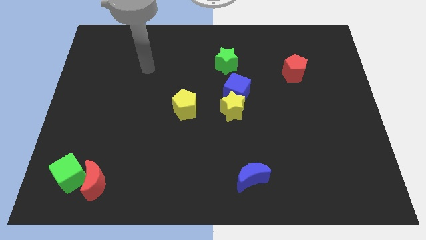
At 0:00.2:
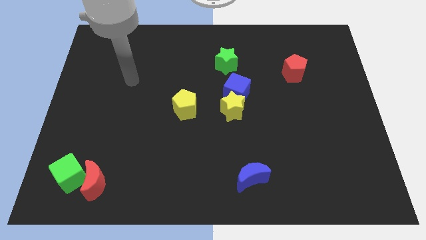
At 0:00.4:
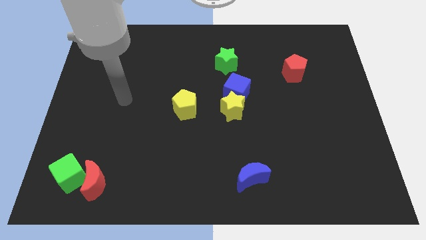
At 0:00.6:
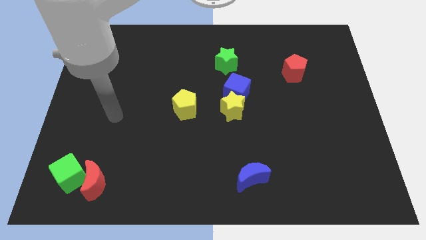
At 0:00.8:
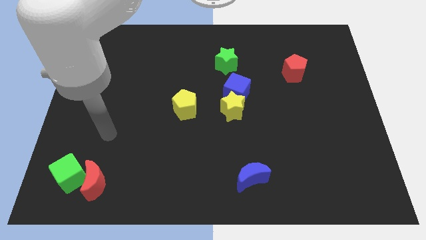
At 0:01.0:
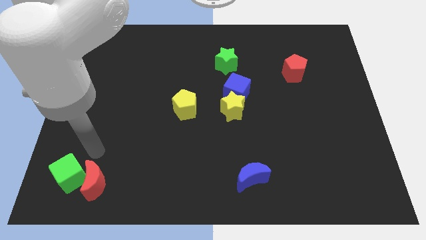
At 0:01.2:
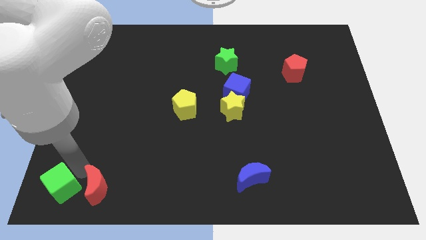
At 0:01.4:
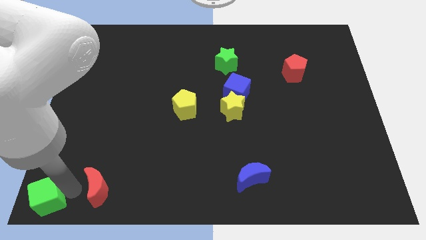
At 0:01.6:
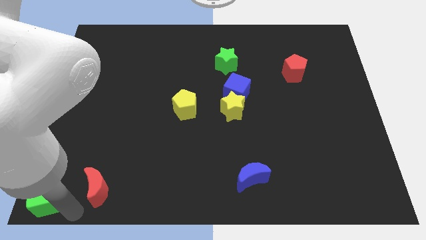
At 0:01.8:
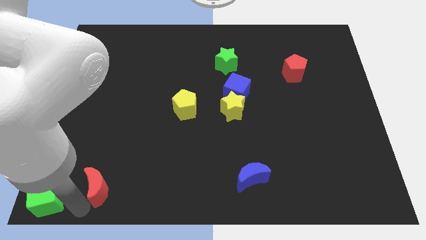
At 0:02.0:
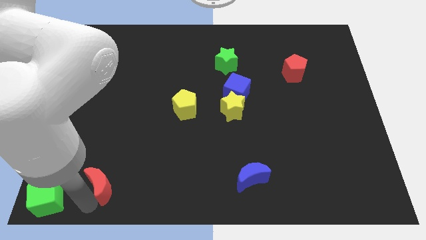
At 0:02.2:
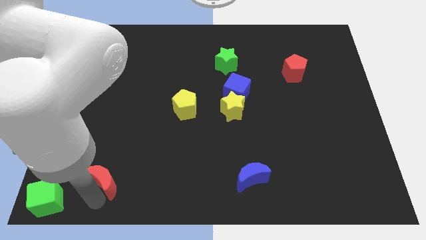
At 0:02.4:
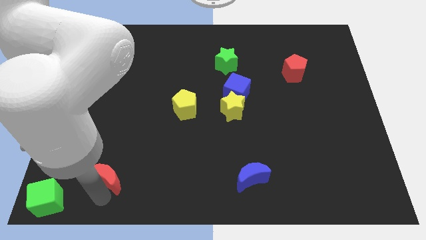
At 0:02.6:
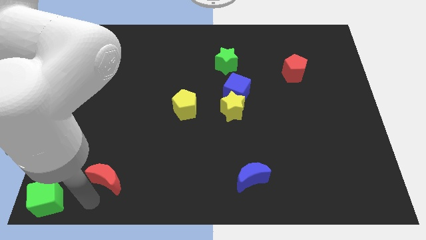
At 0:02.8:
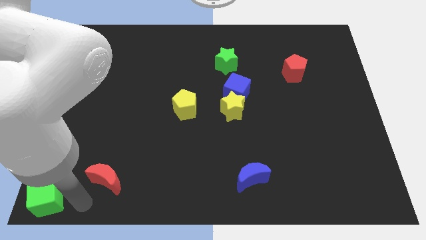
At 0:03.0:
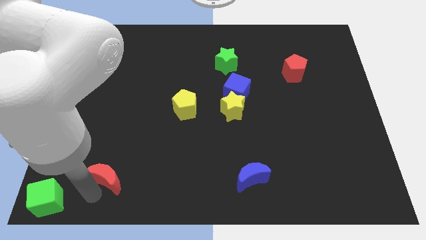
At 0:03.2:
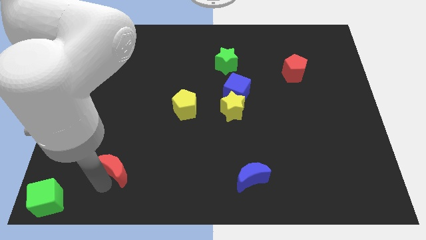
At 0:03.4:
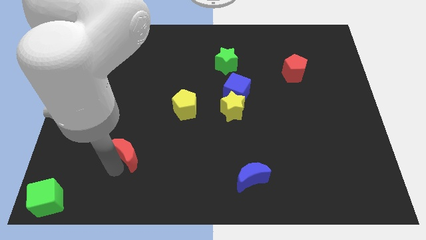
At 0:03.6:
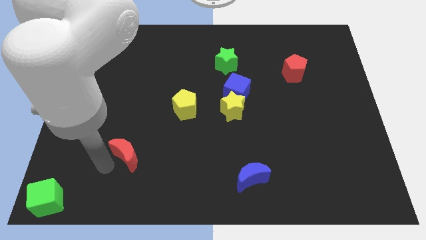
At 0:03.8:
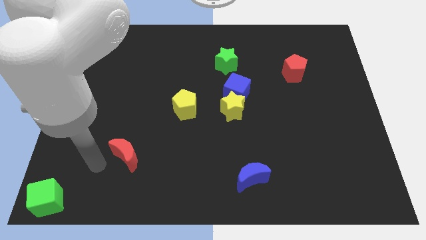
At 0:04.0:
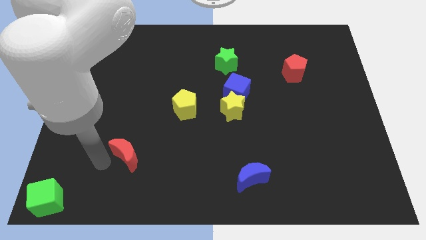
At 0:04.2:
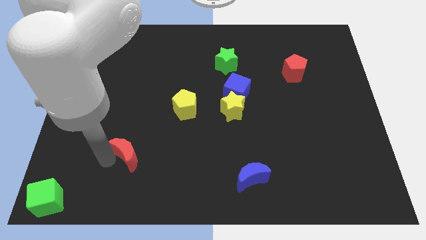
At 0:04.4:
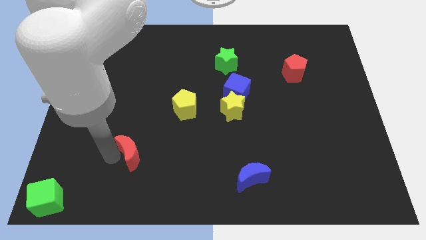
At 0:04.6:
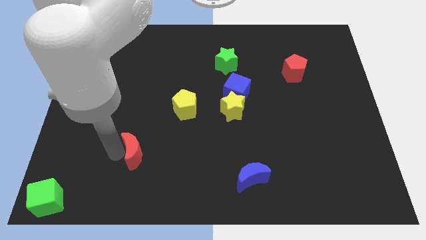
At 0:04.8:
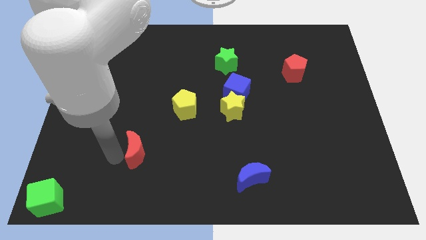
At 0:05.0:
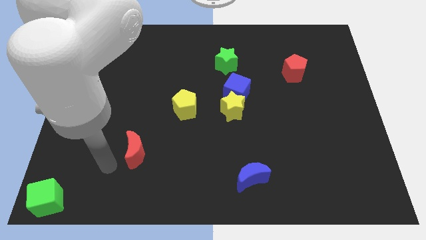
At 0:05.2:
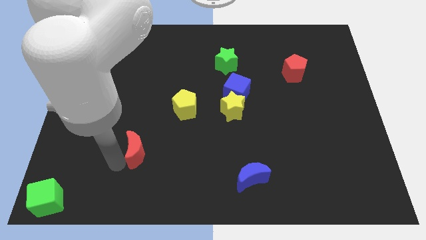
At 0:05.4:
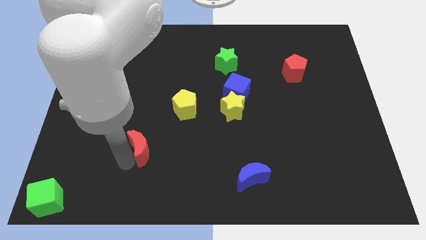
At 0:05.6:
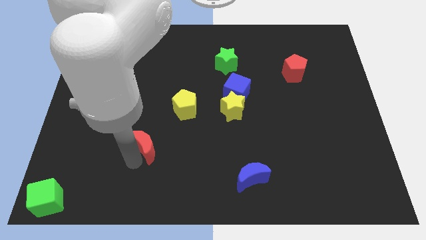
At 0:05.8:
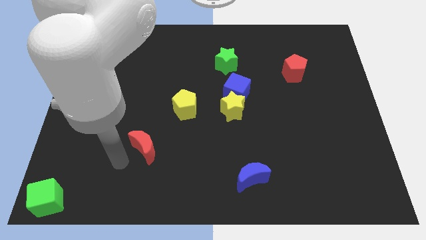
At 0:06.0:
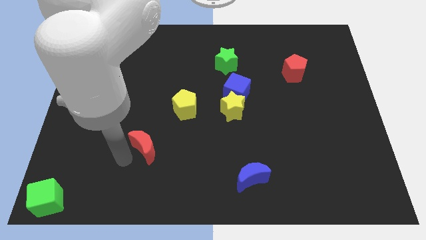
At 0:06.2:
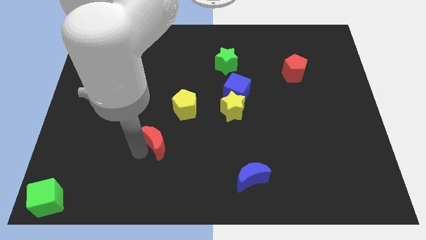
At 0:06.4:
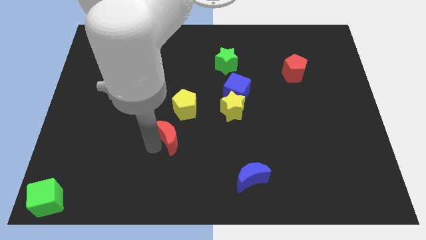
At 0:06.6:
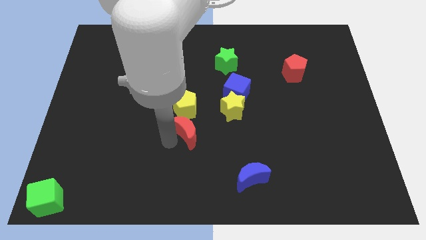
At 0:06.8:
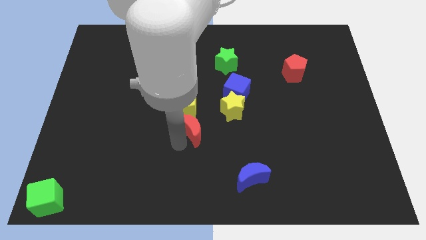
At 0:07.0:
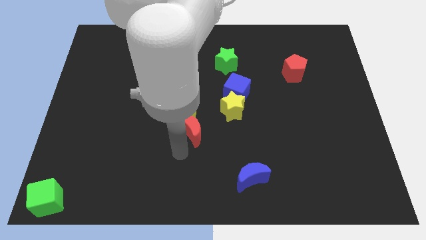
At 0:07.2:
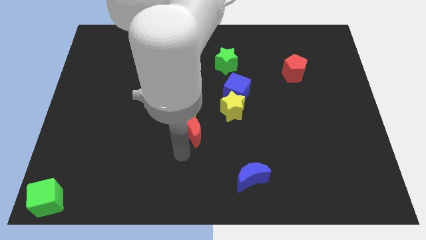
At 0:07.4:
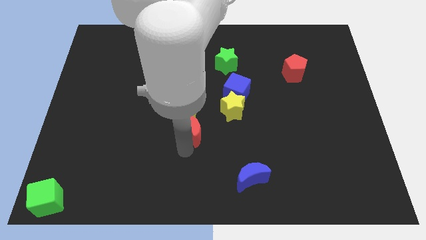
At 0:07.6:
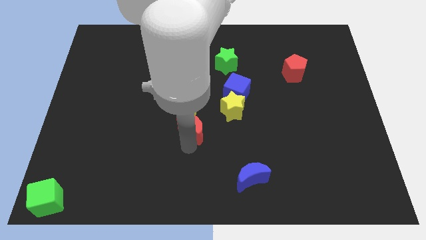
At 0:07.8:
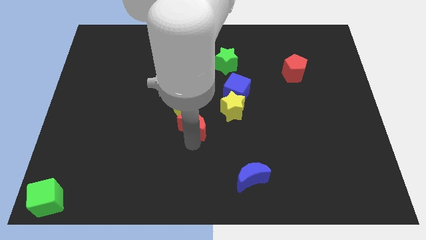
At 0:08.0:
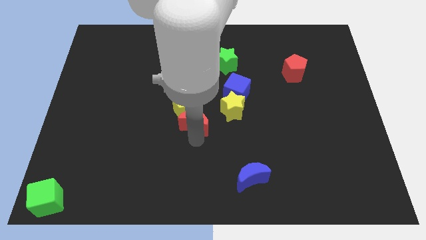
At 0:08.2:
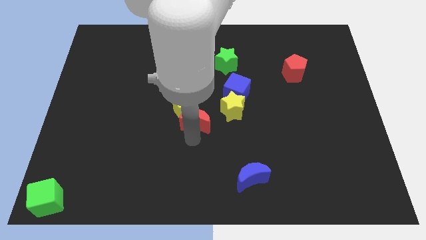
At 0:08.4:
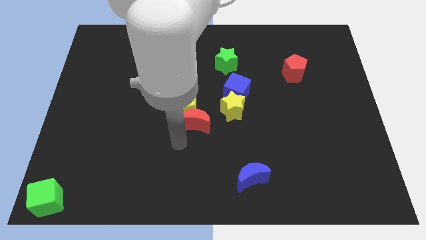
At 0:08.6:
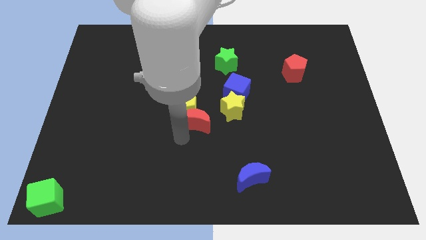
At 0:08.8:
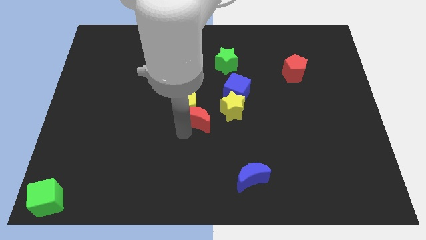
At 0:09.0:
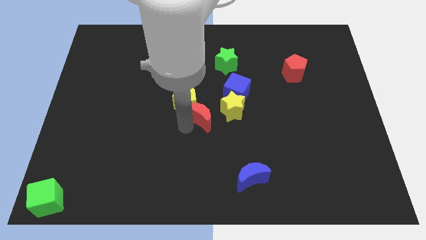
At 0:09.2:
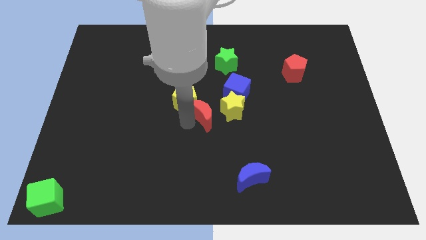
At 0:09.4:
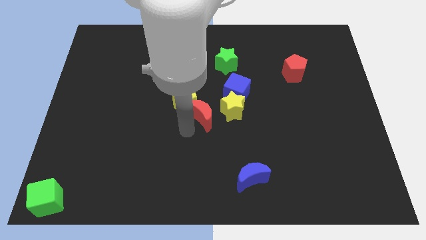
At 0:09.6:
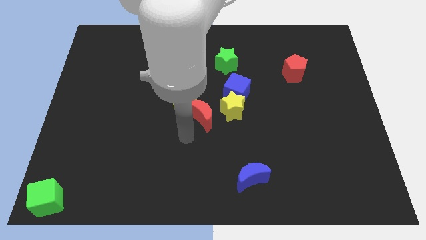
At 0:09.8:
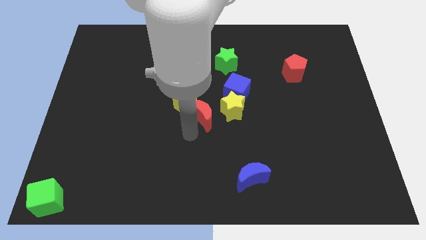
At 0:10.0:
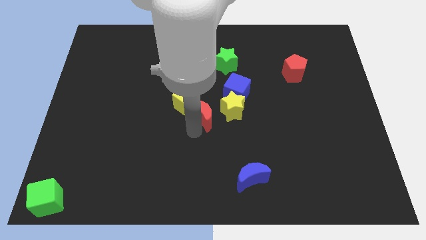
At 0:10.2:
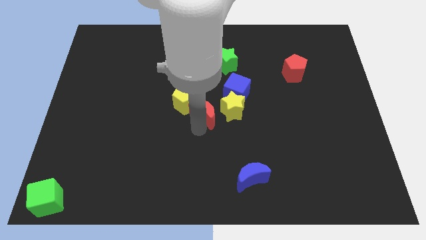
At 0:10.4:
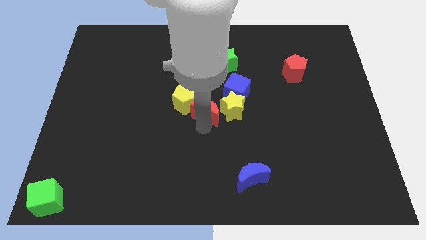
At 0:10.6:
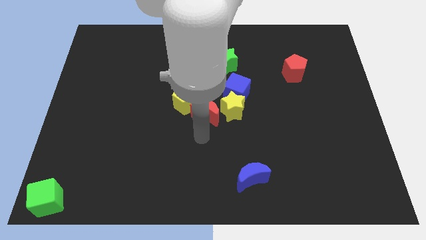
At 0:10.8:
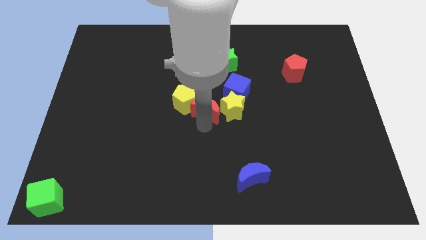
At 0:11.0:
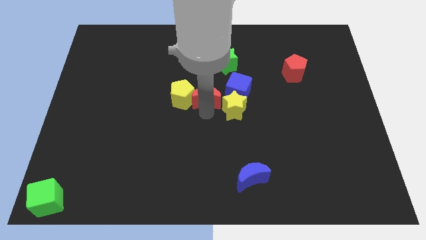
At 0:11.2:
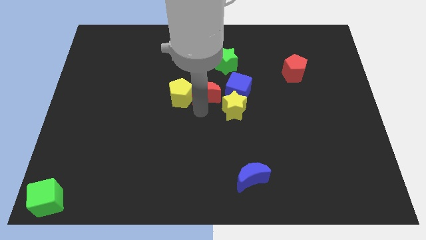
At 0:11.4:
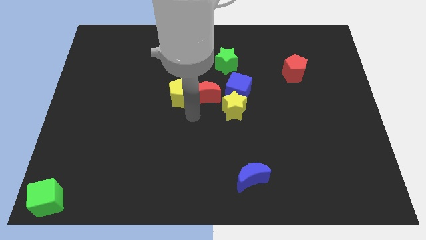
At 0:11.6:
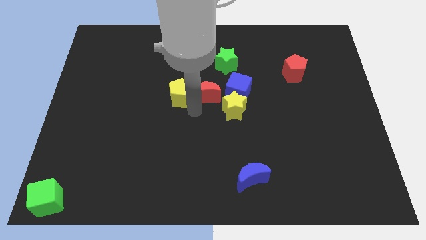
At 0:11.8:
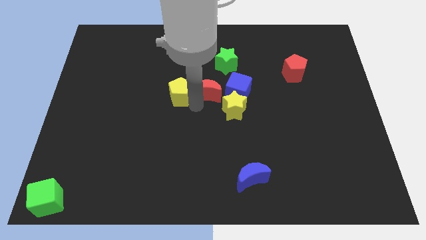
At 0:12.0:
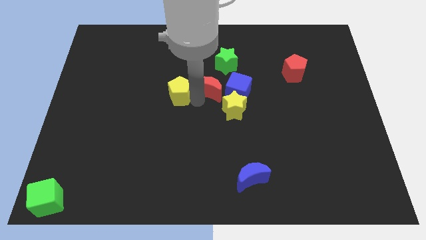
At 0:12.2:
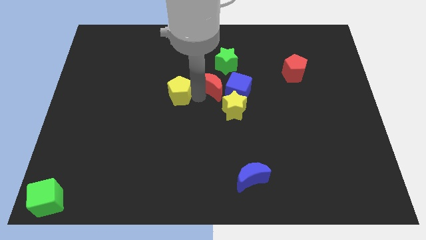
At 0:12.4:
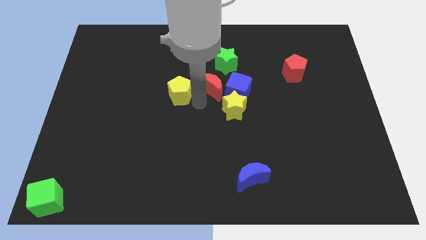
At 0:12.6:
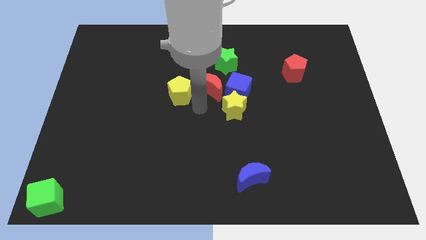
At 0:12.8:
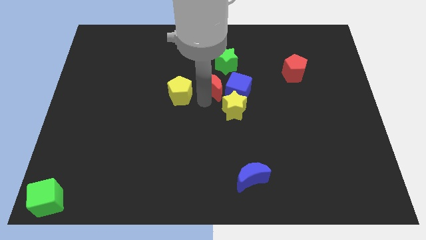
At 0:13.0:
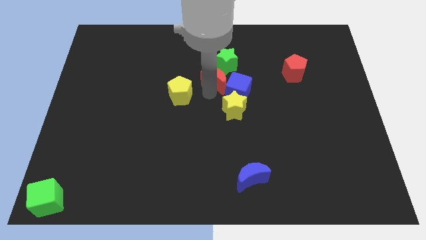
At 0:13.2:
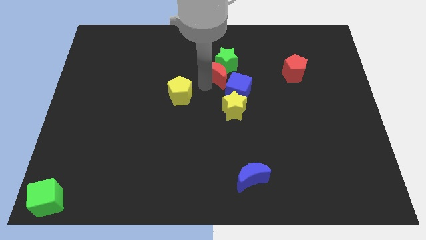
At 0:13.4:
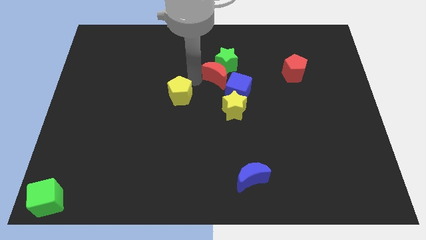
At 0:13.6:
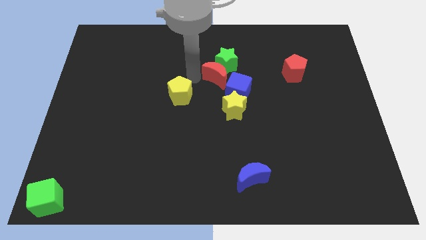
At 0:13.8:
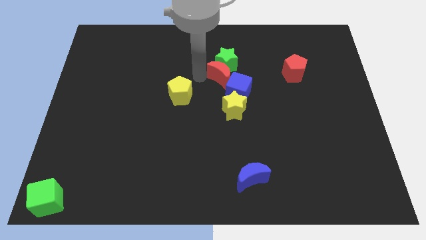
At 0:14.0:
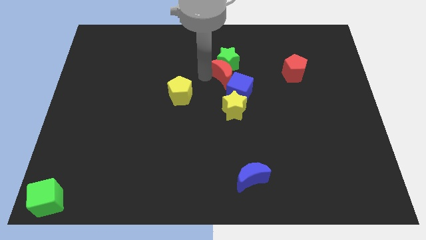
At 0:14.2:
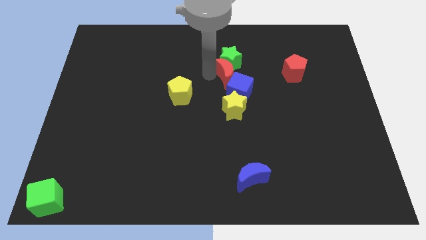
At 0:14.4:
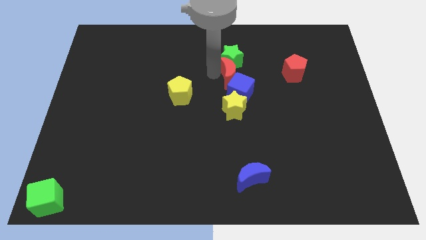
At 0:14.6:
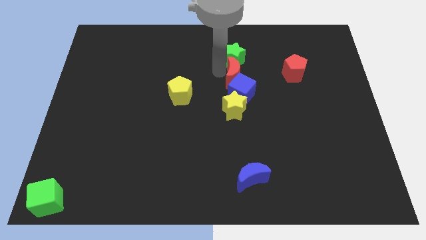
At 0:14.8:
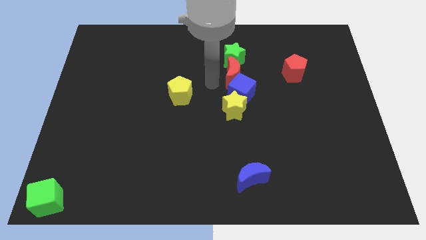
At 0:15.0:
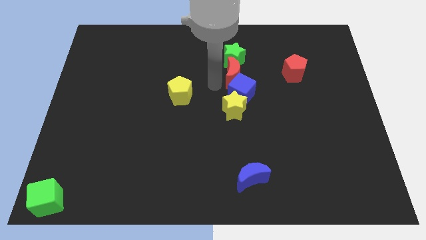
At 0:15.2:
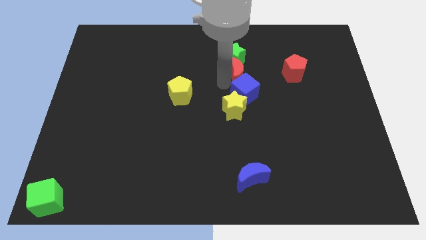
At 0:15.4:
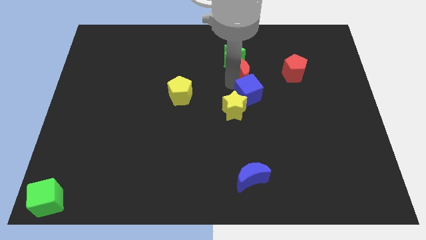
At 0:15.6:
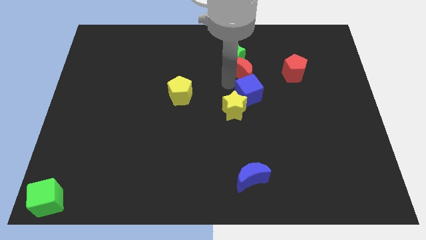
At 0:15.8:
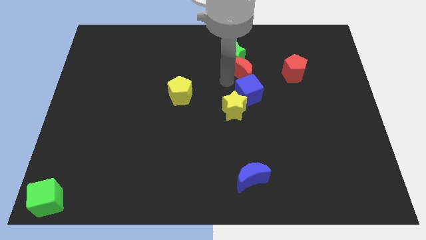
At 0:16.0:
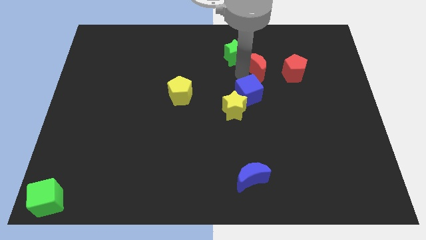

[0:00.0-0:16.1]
put the red moon to the right of the green star

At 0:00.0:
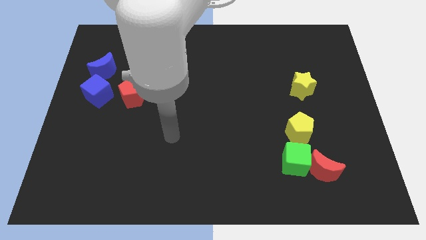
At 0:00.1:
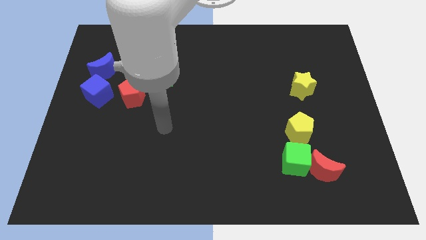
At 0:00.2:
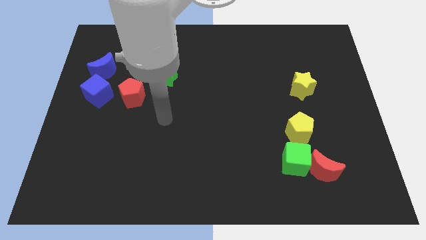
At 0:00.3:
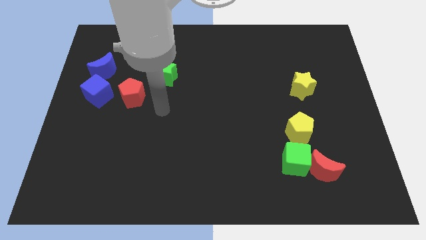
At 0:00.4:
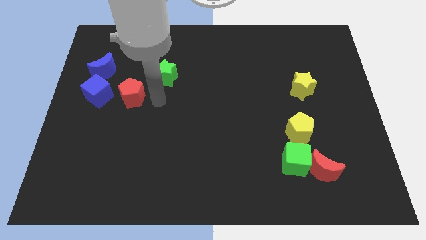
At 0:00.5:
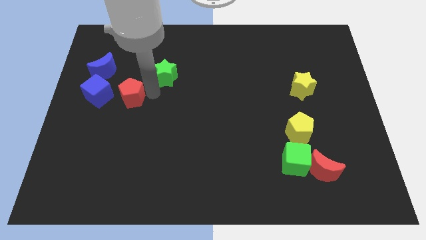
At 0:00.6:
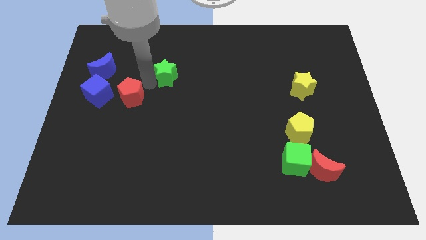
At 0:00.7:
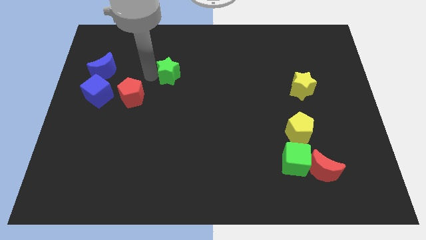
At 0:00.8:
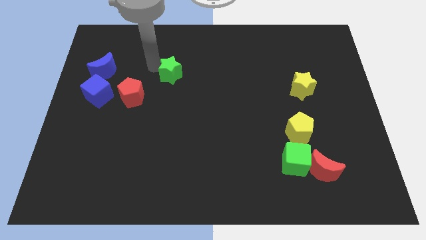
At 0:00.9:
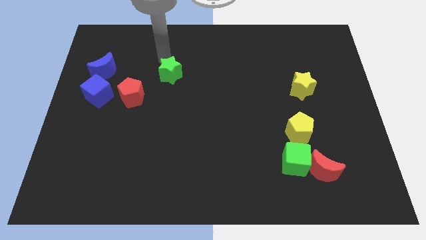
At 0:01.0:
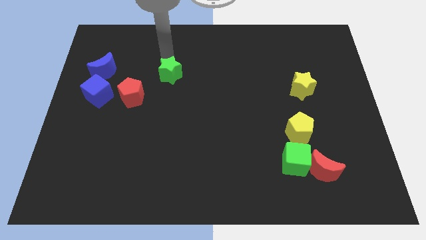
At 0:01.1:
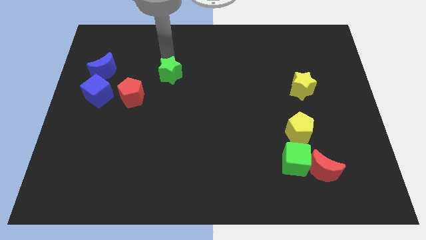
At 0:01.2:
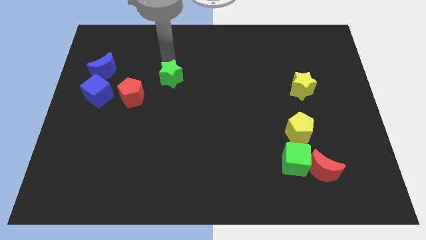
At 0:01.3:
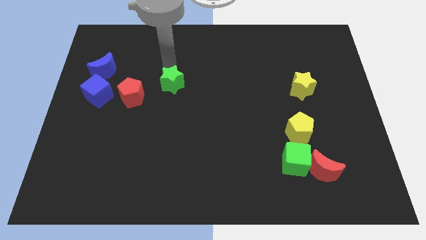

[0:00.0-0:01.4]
move the green star to the right of the red pentagon
